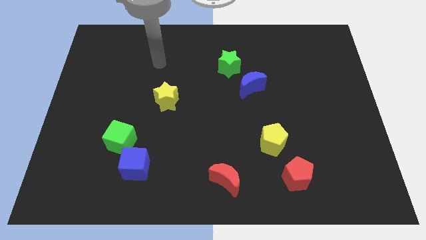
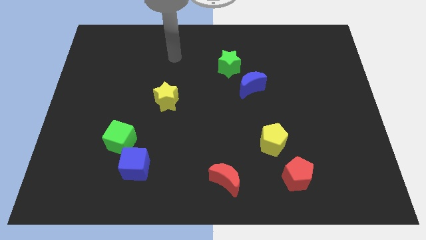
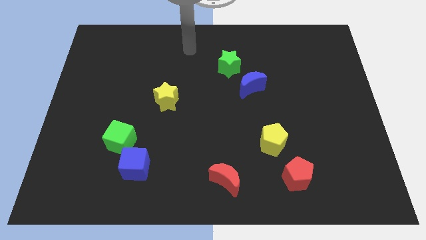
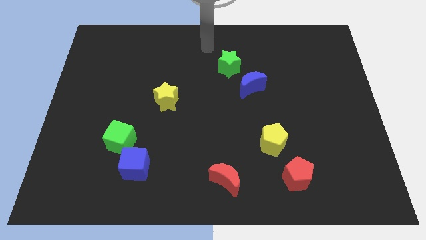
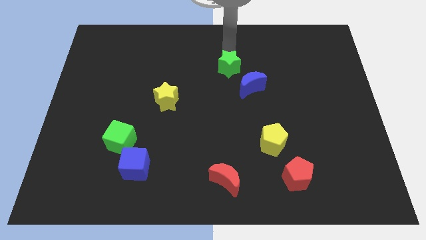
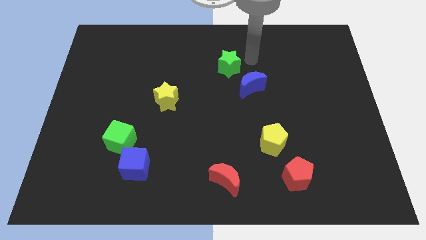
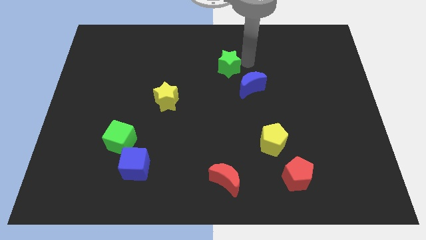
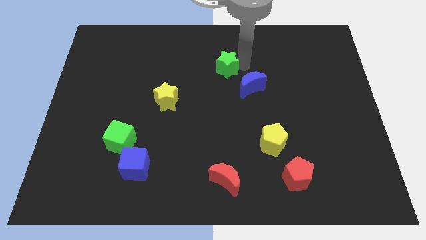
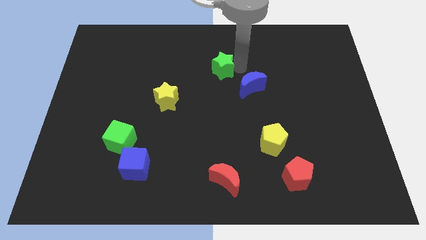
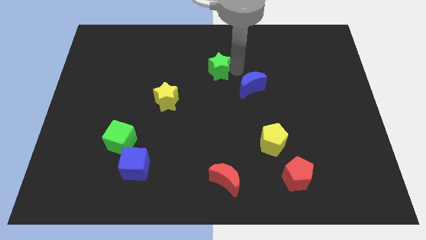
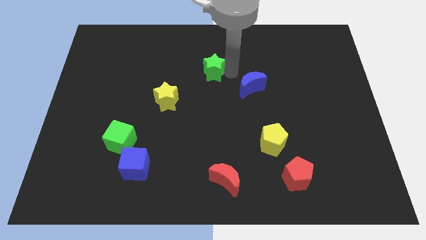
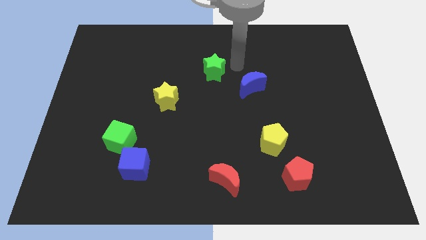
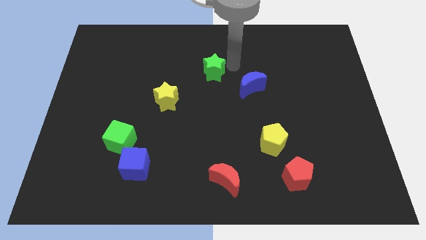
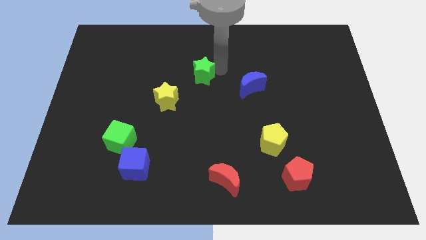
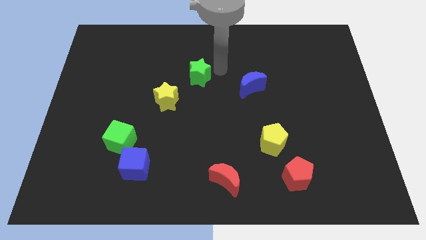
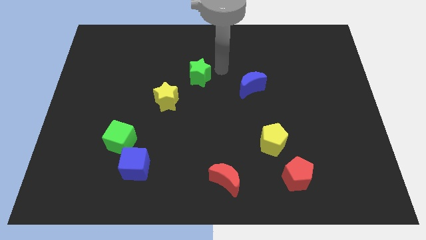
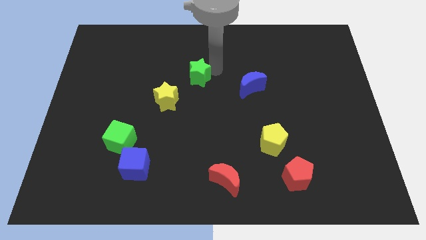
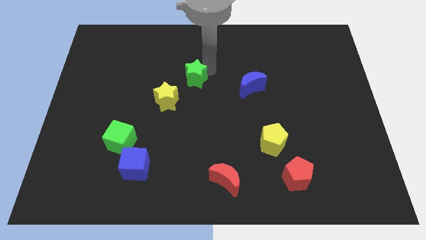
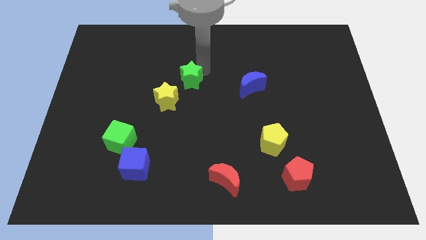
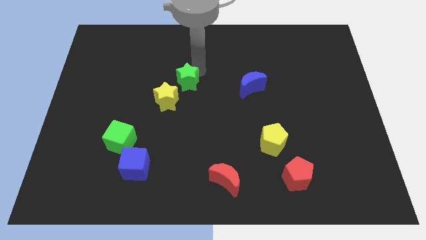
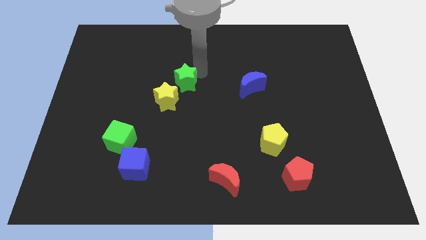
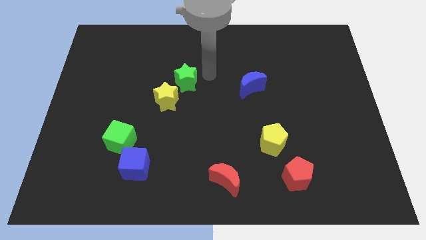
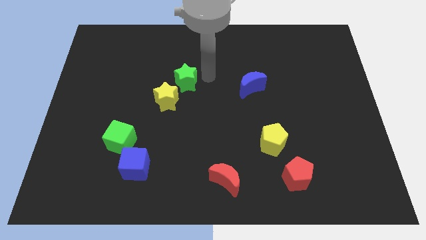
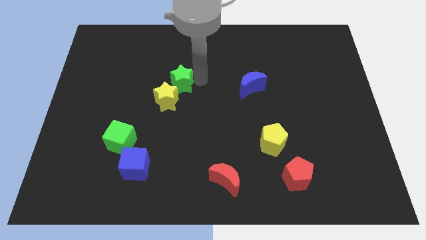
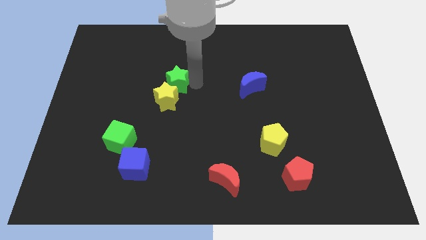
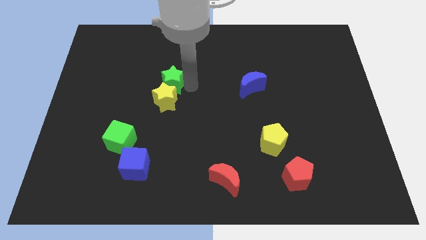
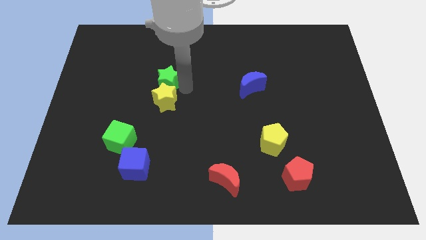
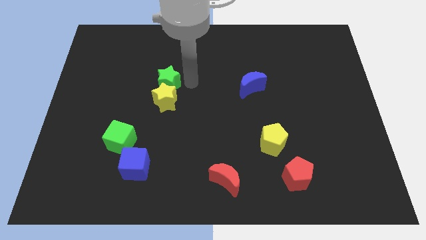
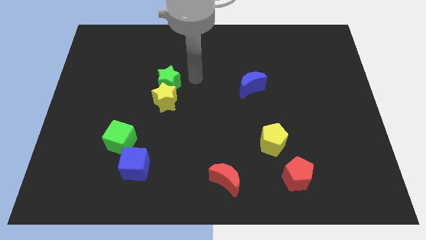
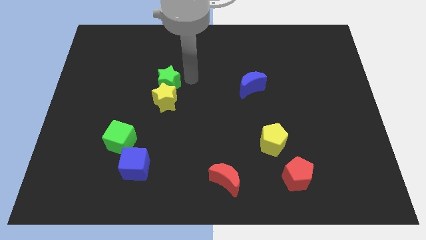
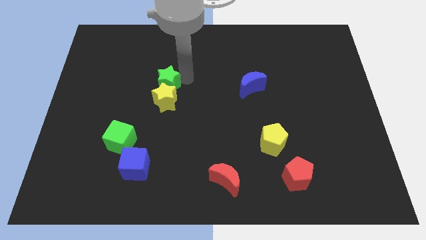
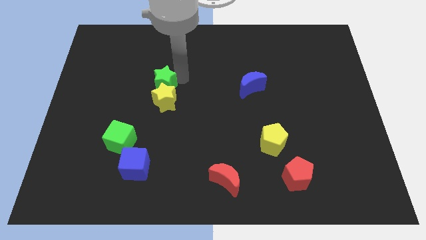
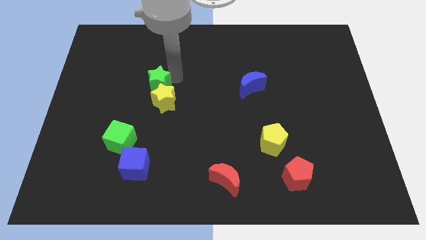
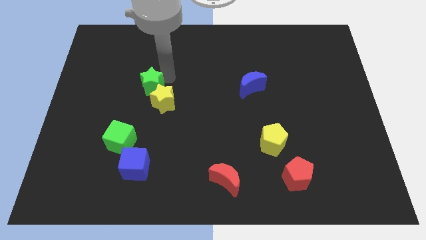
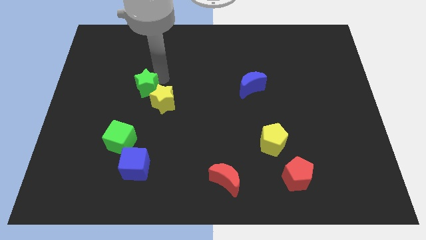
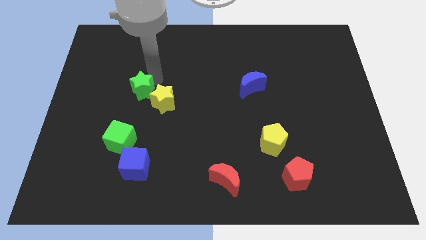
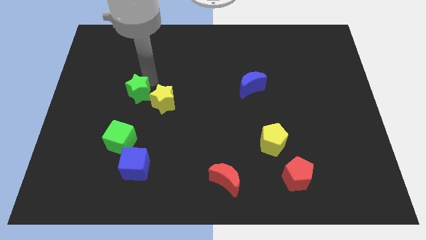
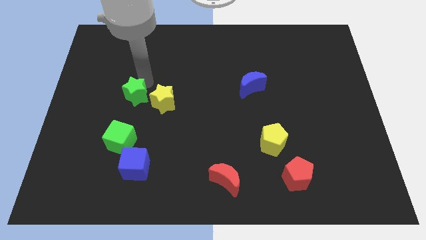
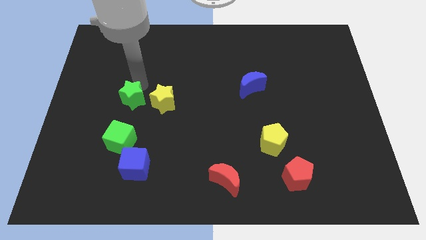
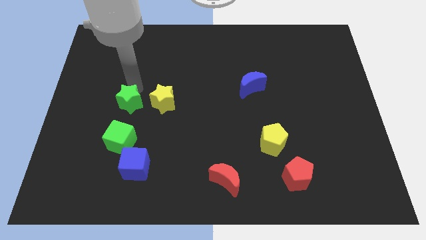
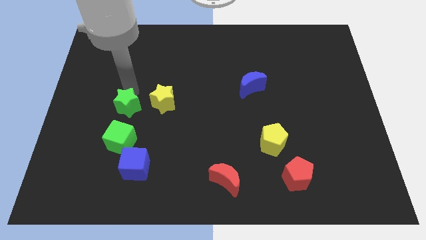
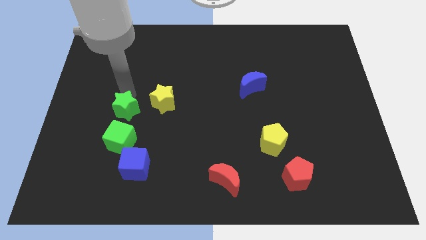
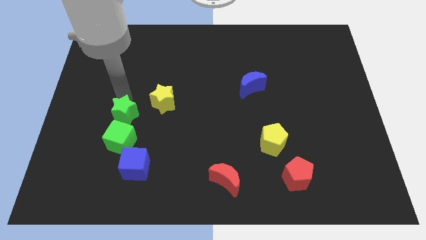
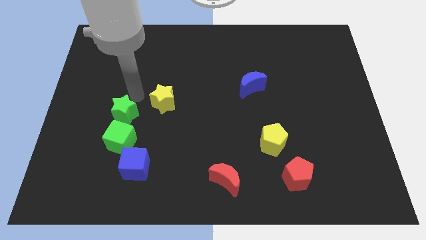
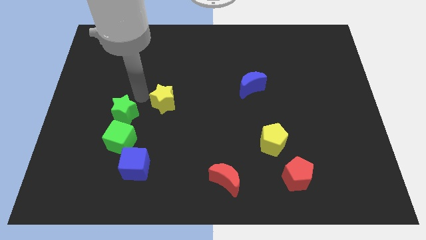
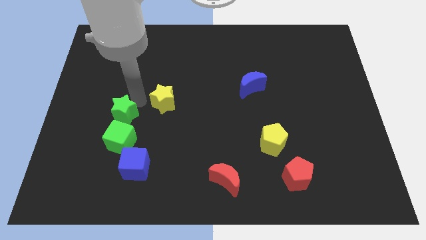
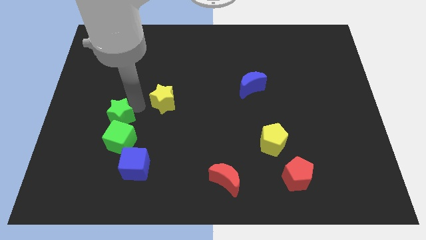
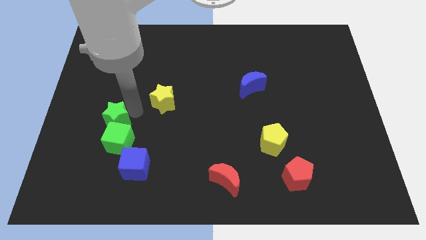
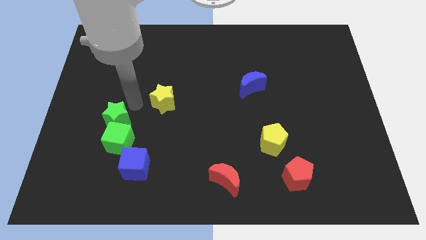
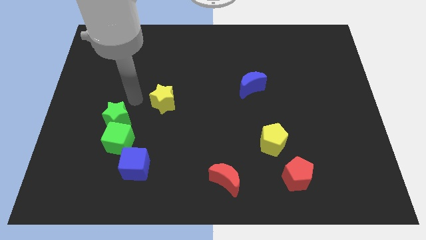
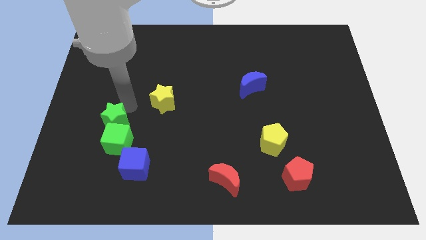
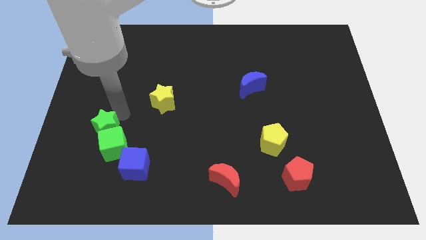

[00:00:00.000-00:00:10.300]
push the green star to the top left of the blue cube

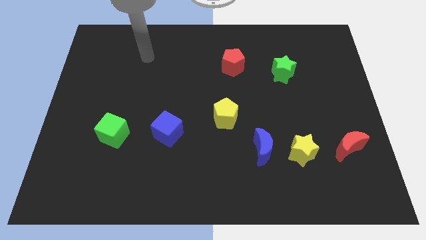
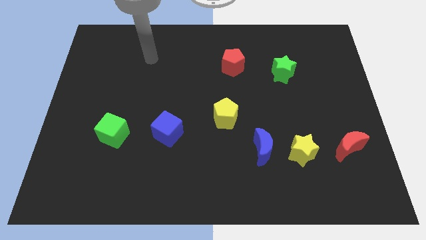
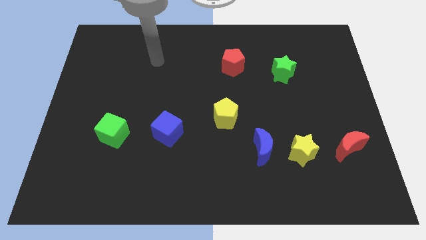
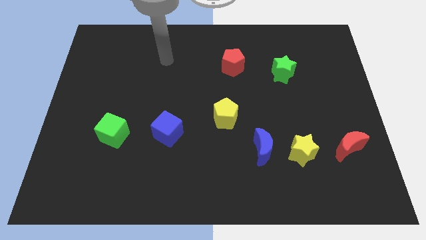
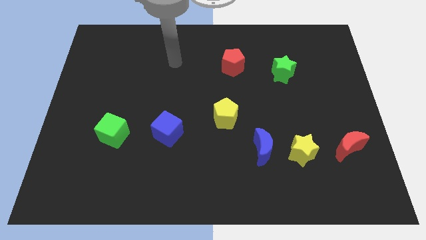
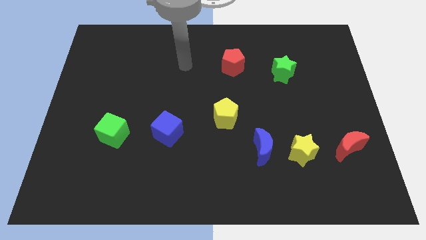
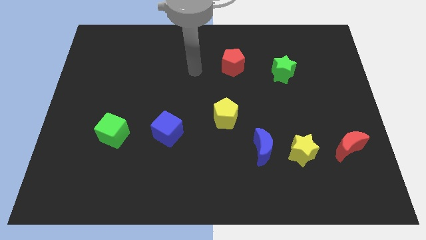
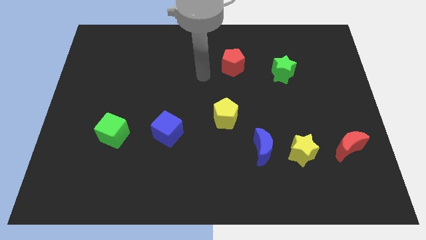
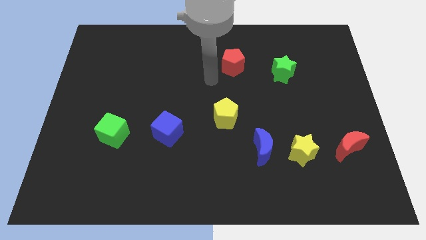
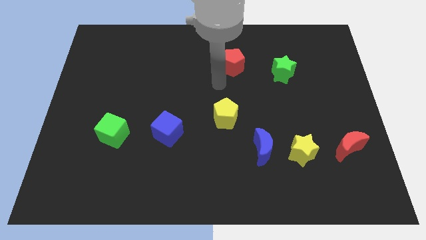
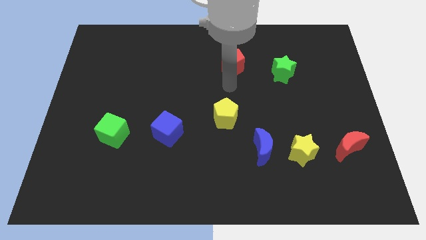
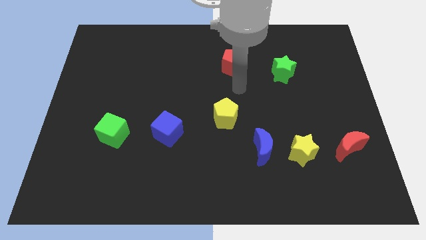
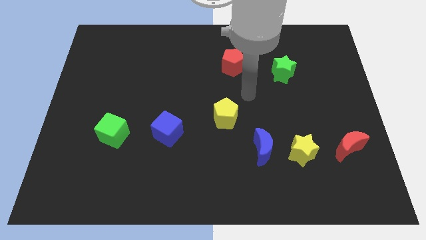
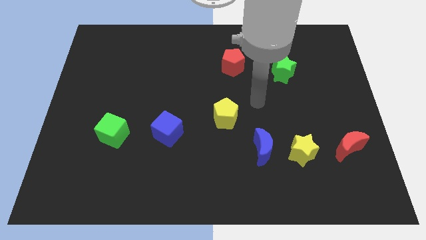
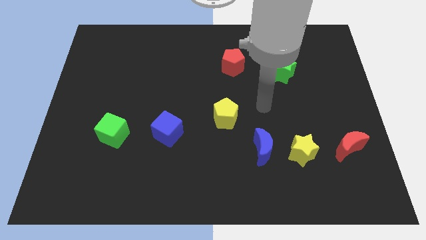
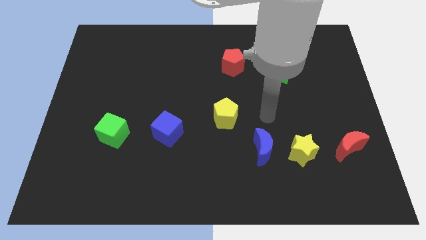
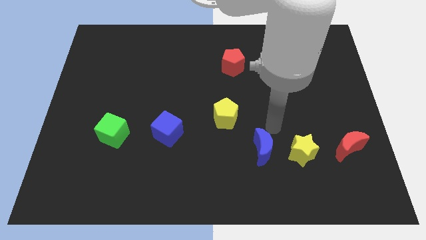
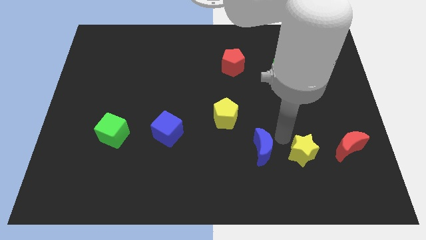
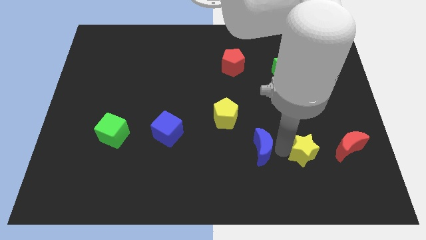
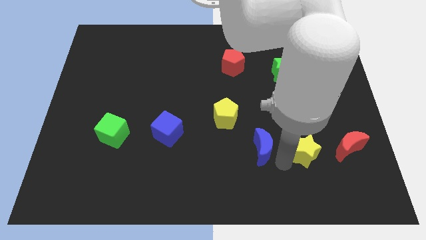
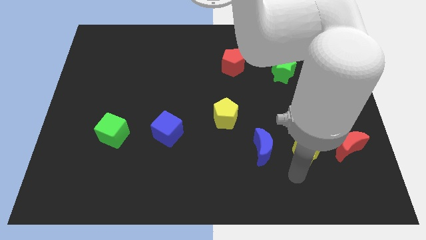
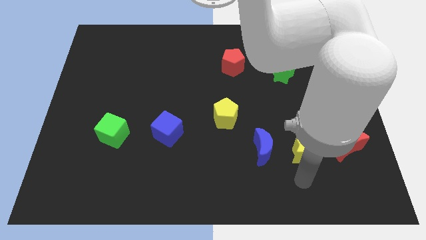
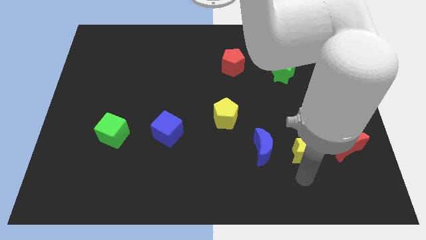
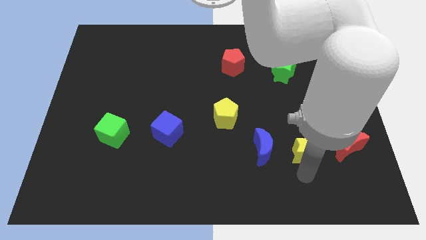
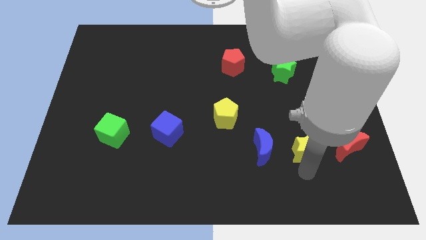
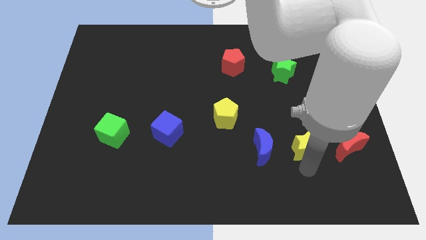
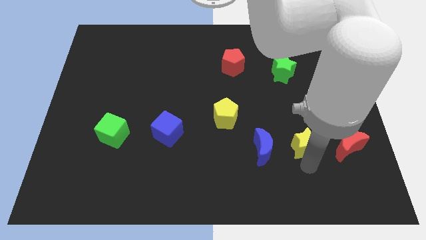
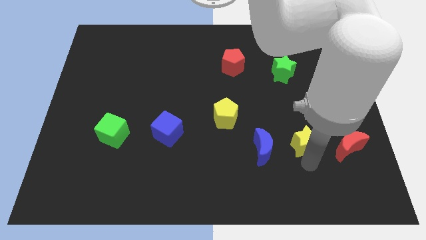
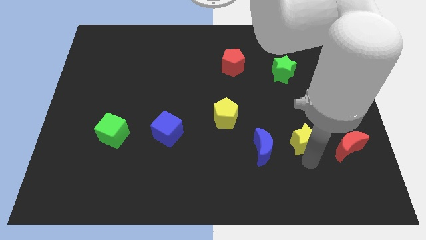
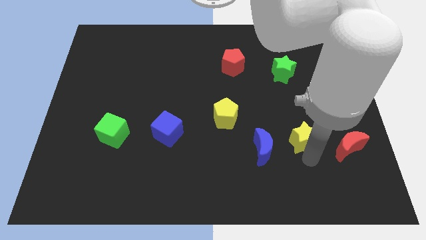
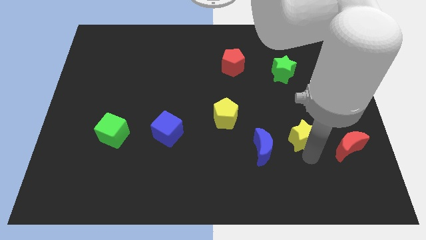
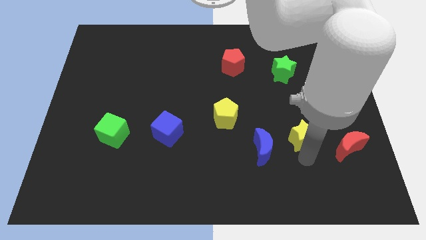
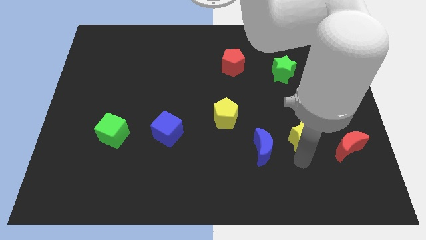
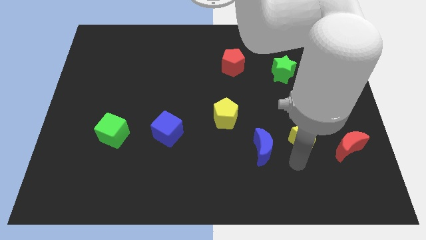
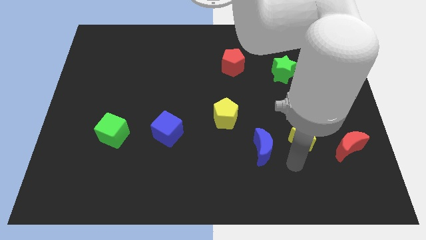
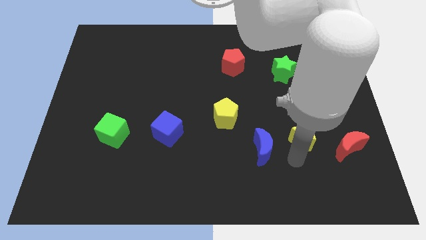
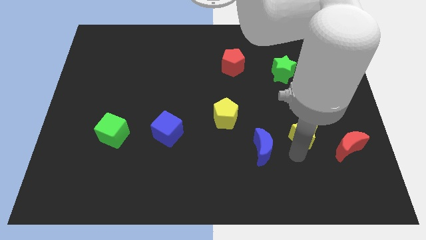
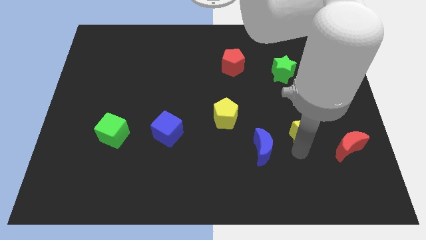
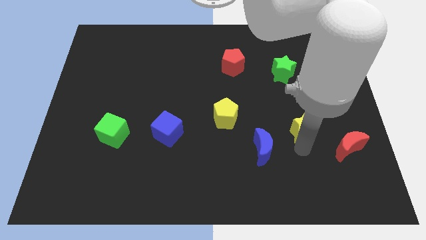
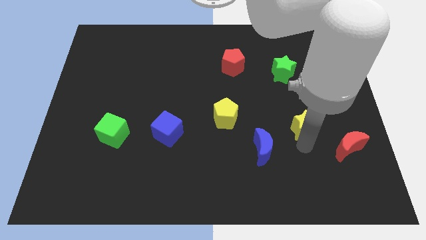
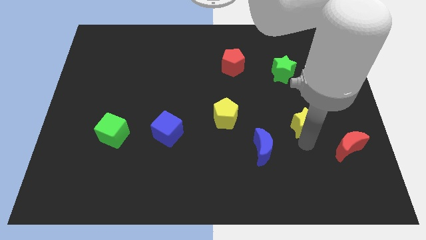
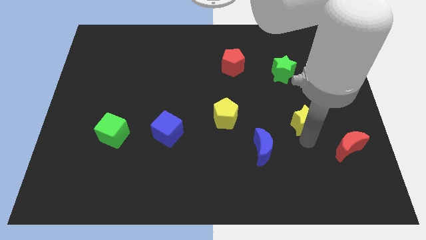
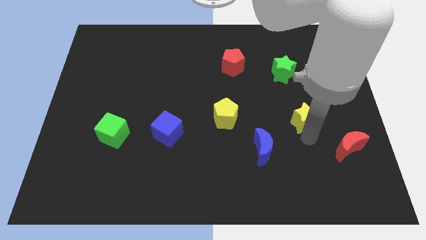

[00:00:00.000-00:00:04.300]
push the yellow star below the green star
